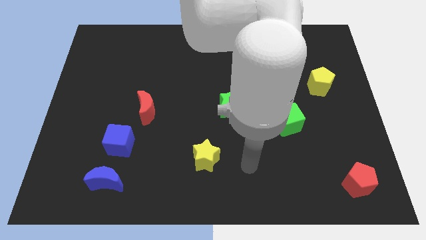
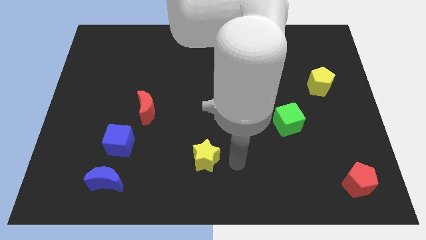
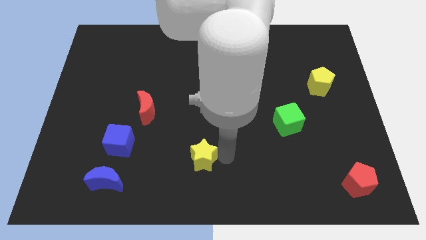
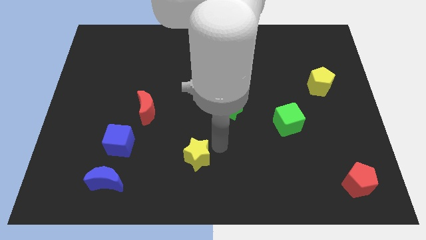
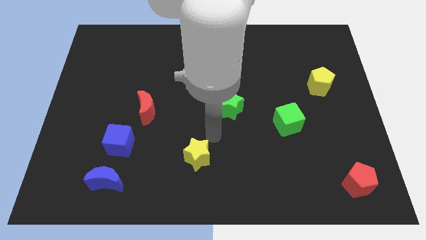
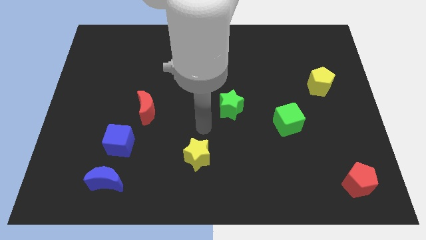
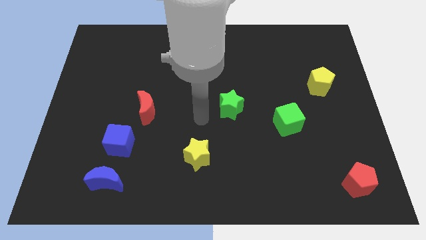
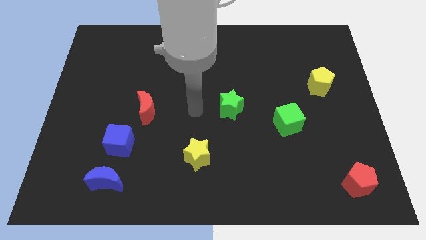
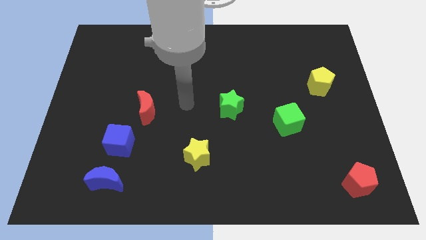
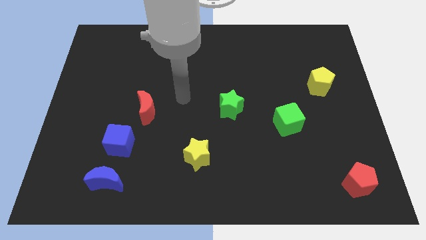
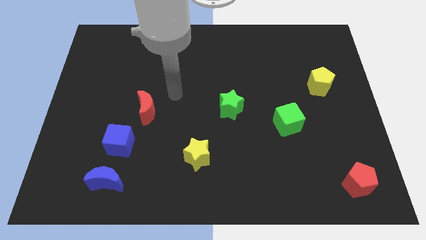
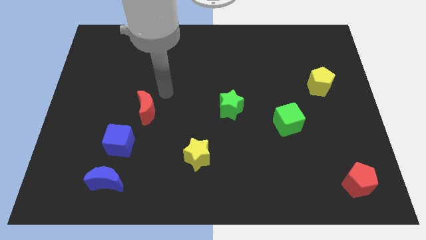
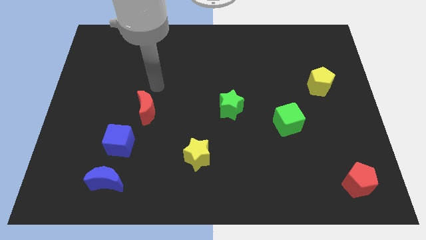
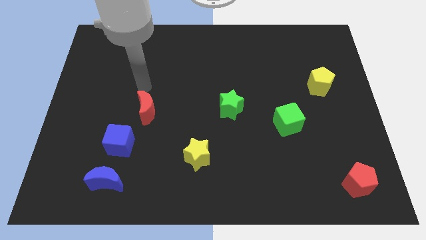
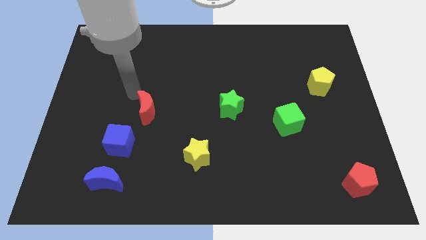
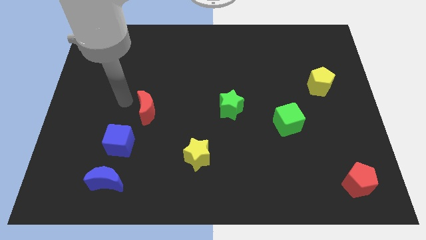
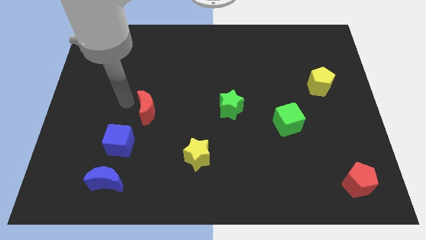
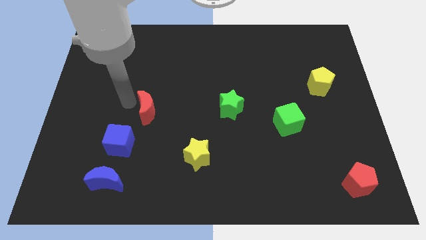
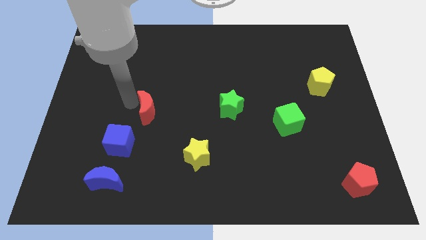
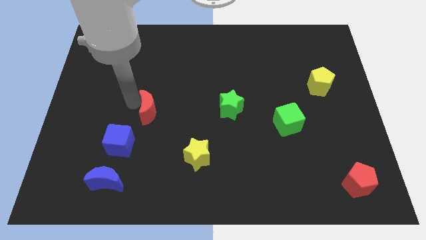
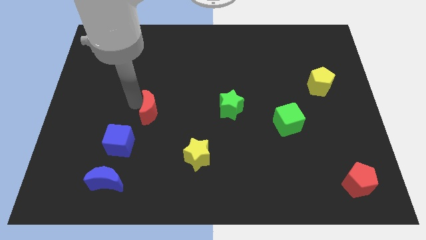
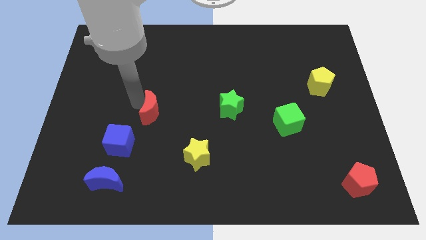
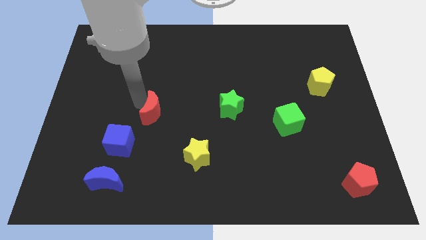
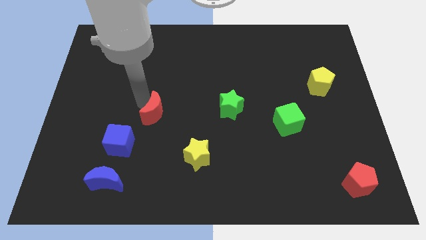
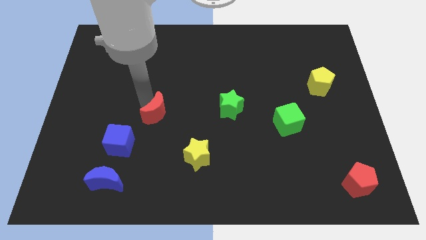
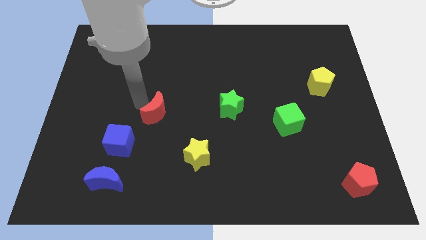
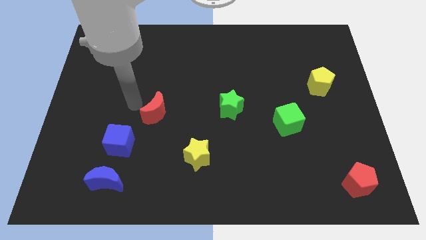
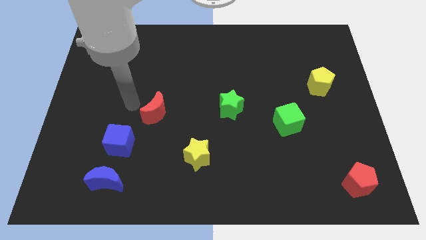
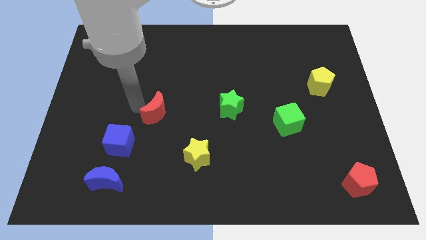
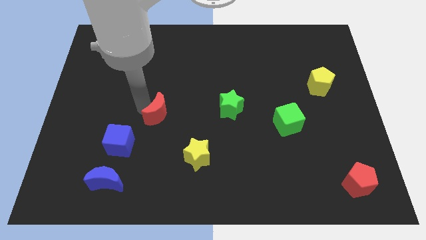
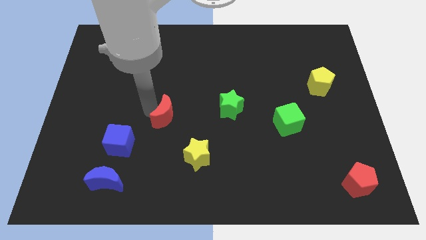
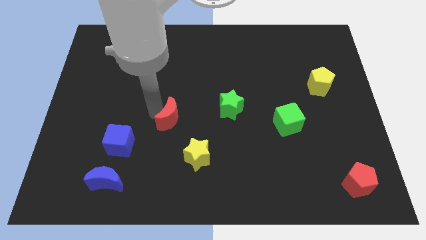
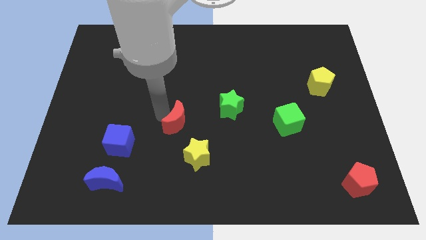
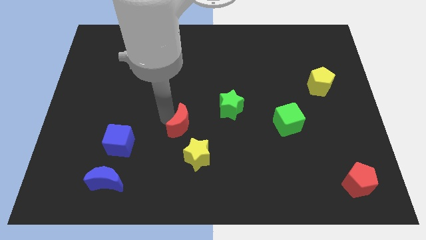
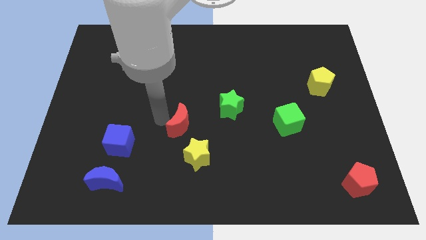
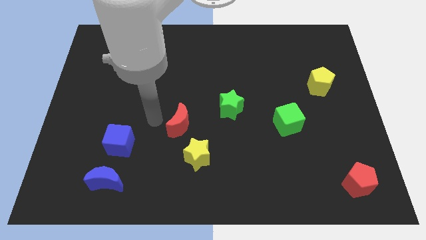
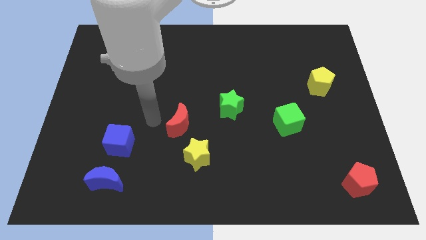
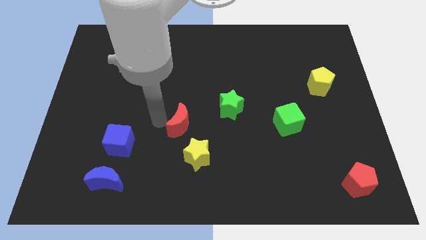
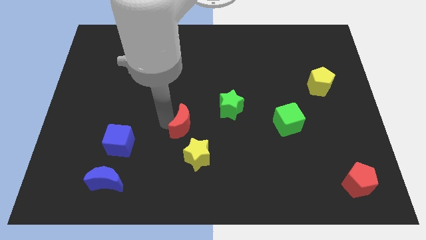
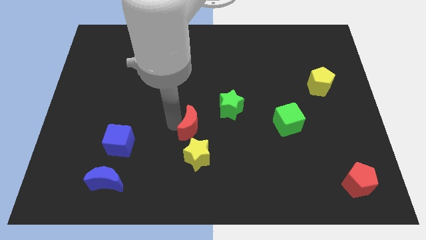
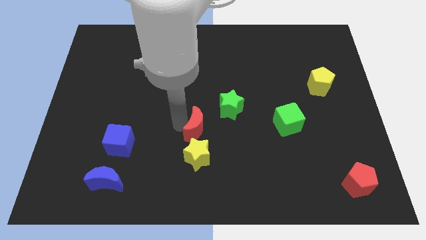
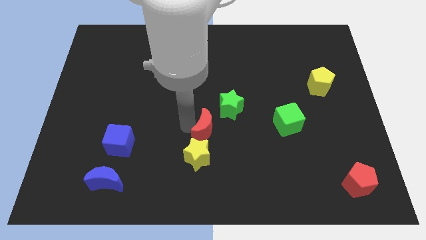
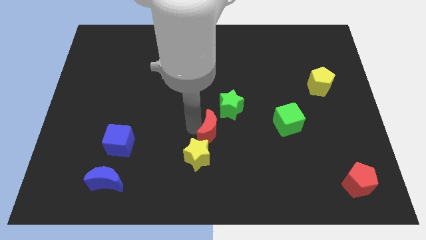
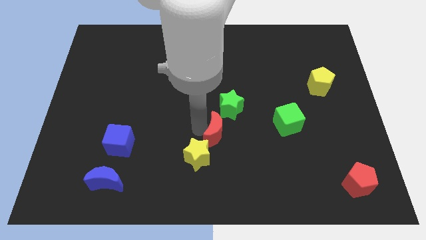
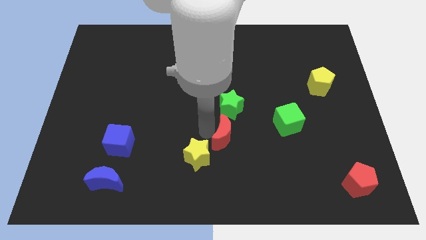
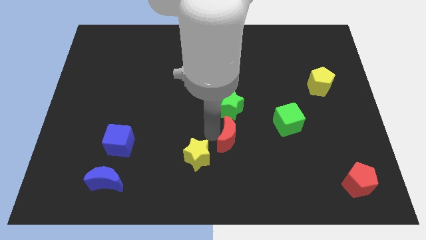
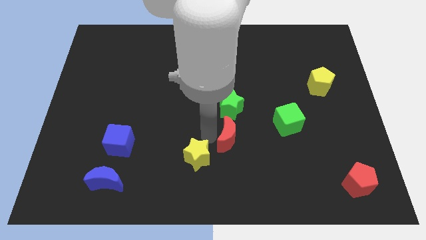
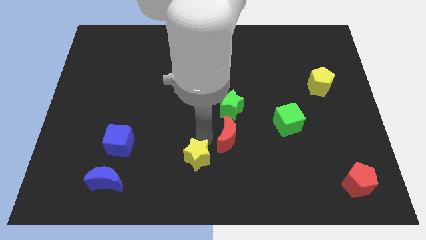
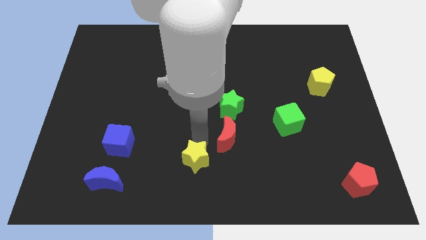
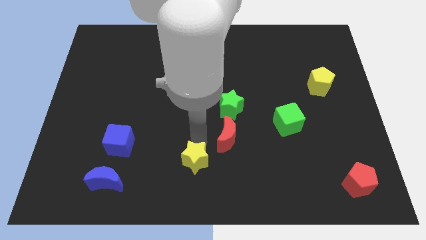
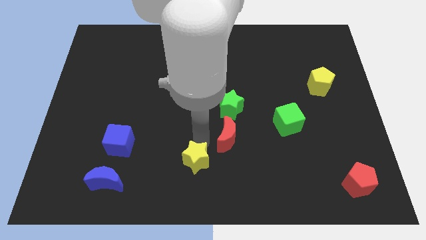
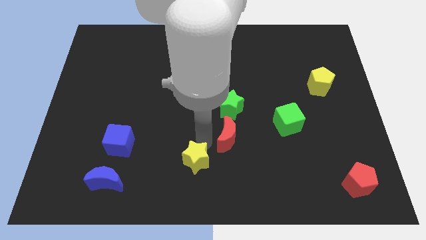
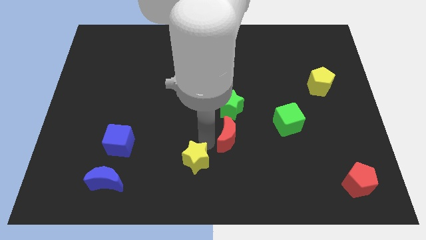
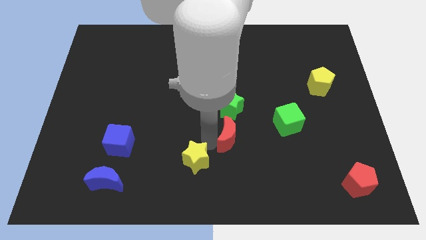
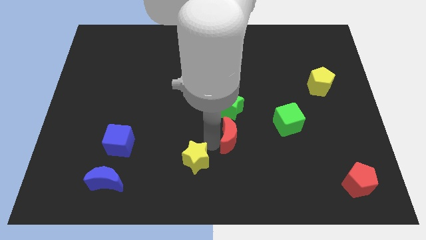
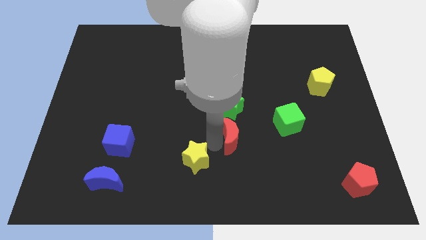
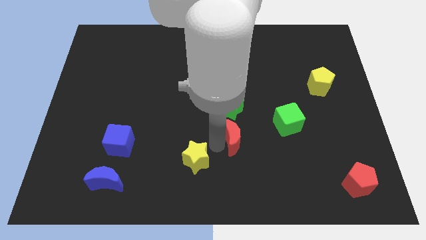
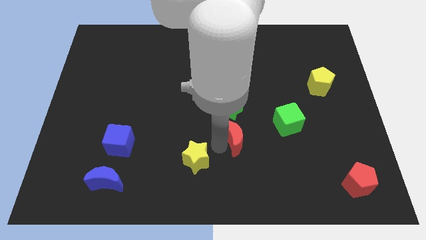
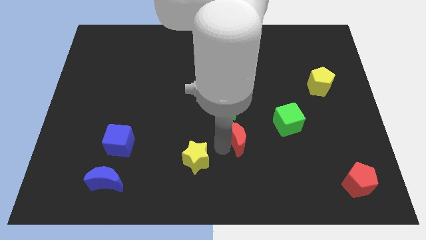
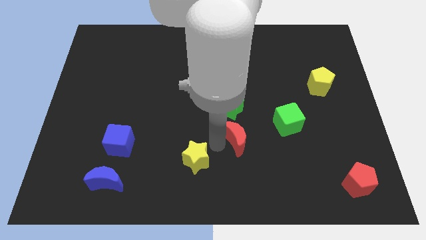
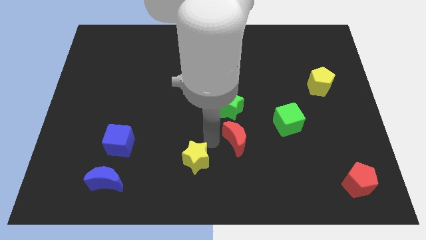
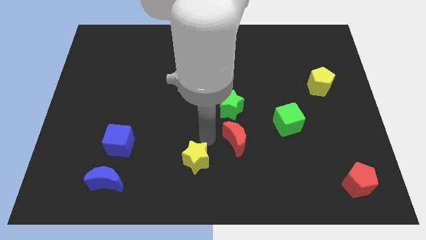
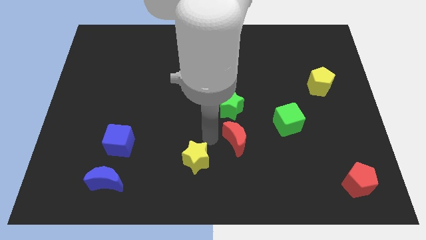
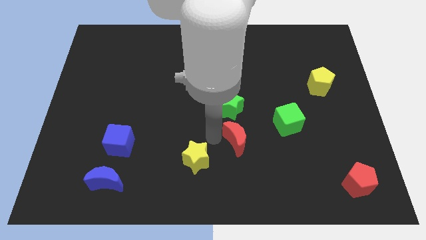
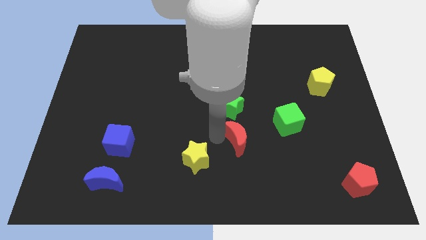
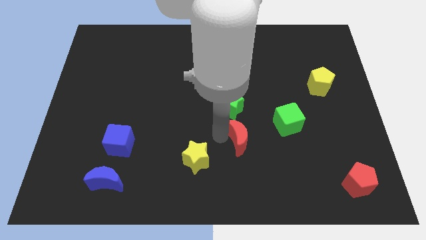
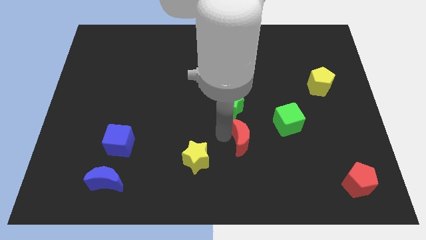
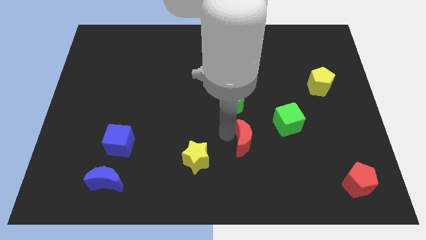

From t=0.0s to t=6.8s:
put the red moon diagonally down and to the left of the green cube
